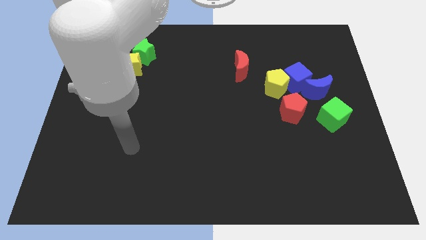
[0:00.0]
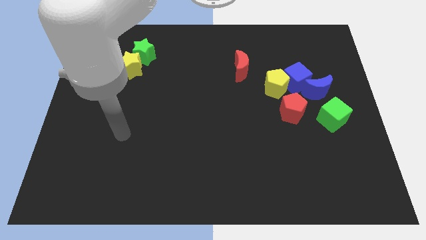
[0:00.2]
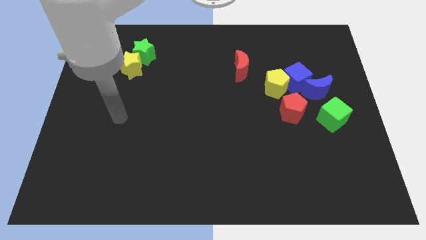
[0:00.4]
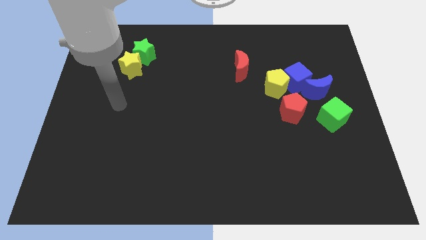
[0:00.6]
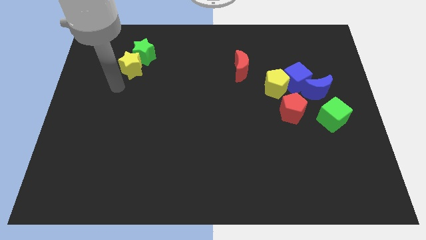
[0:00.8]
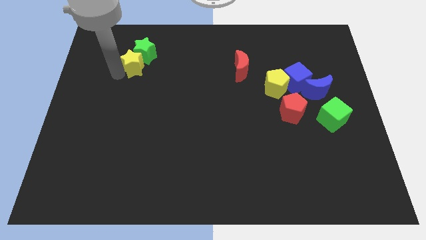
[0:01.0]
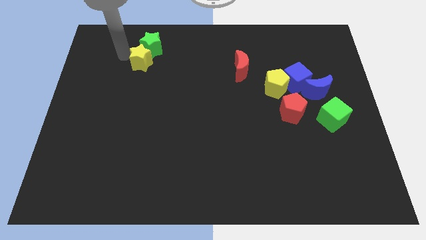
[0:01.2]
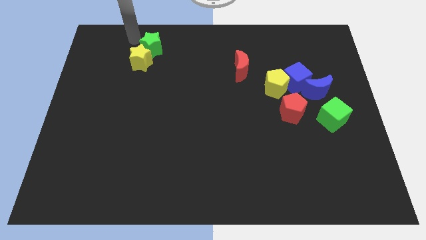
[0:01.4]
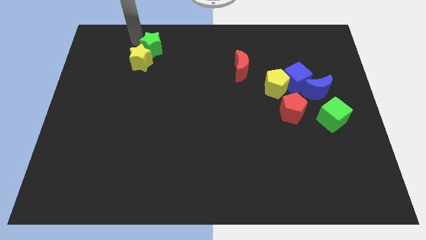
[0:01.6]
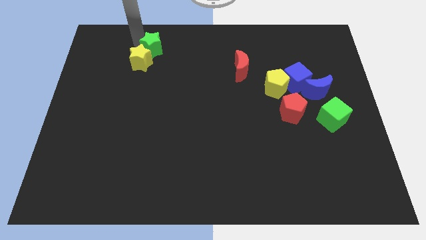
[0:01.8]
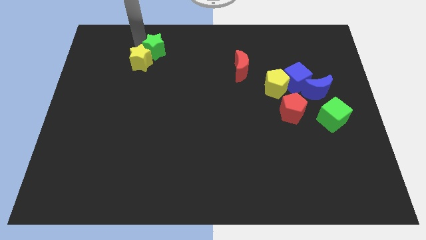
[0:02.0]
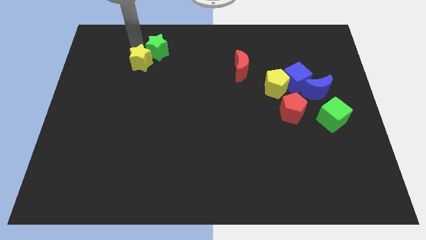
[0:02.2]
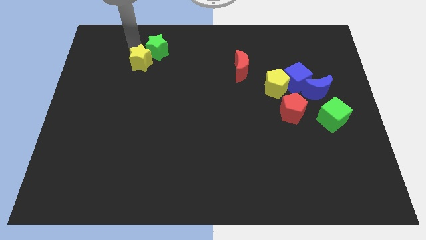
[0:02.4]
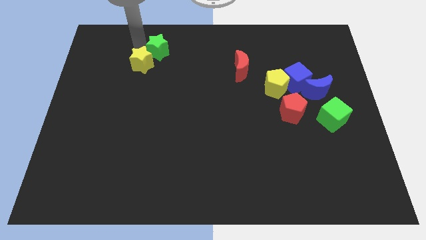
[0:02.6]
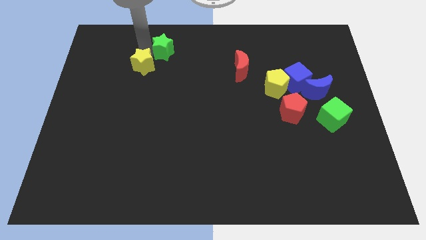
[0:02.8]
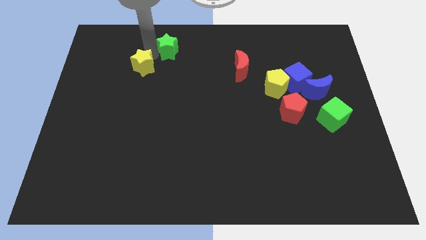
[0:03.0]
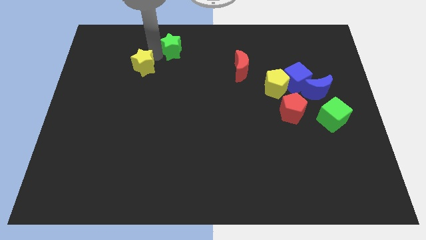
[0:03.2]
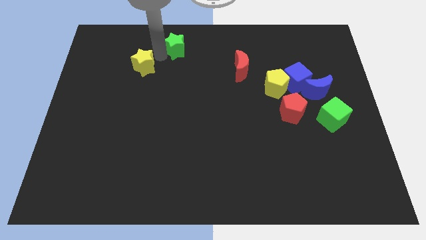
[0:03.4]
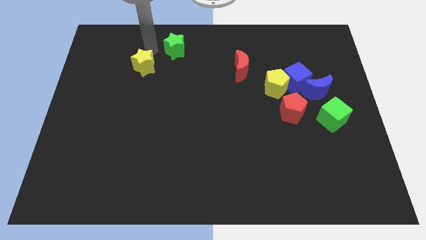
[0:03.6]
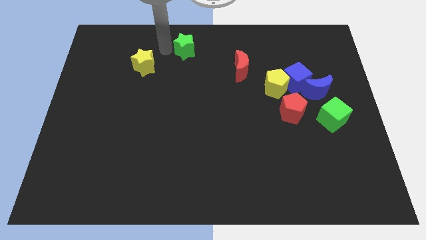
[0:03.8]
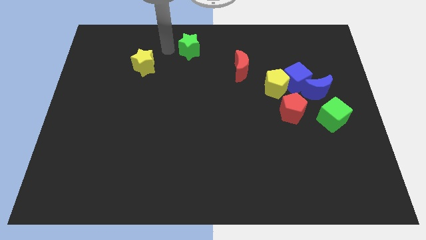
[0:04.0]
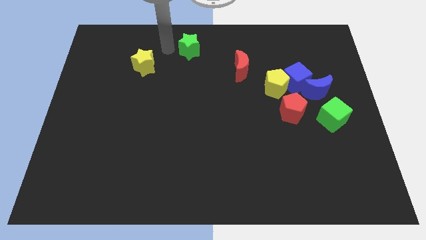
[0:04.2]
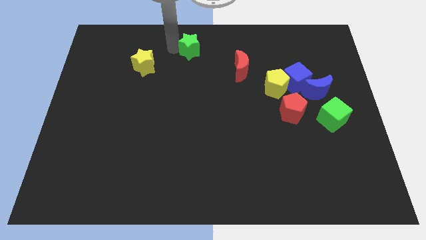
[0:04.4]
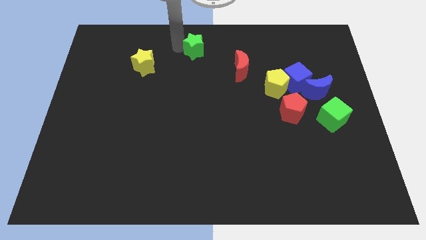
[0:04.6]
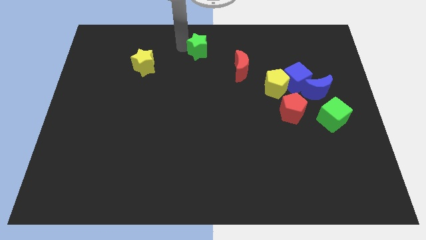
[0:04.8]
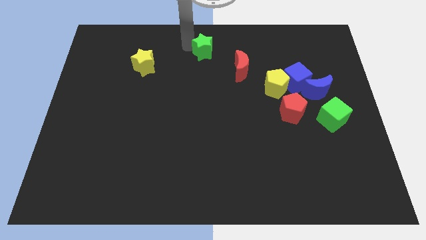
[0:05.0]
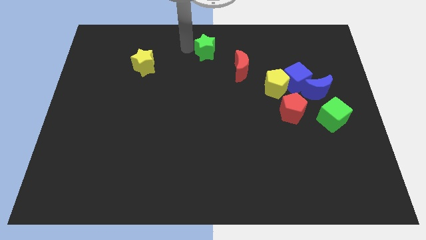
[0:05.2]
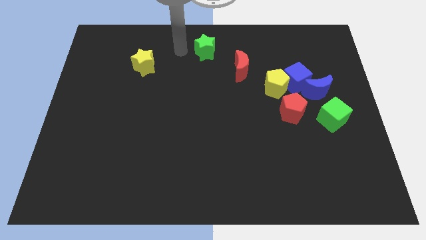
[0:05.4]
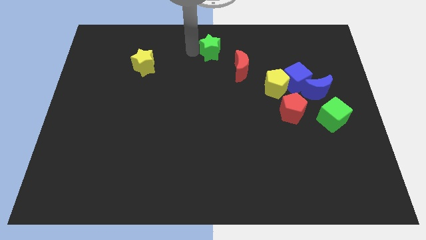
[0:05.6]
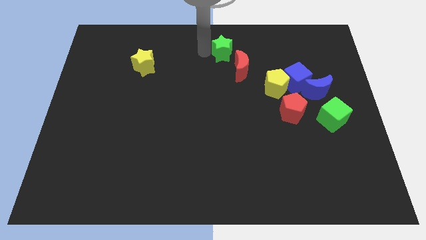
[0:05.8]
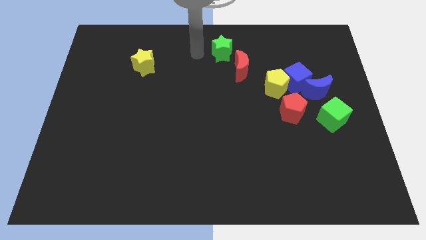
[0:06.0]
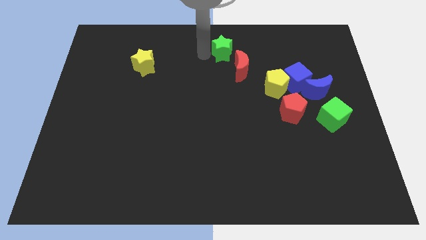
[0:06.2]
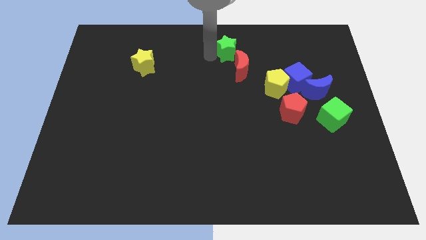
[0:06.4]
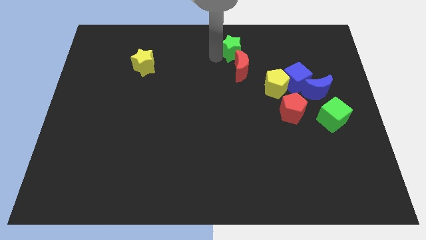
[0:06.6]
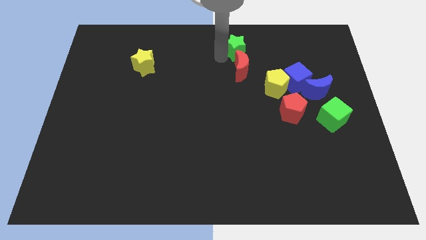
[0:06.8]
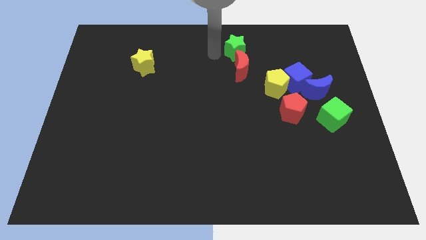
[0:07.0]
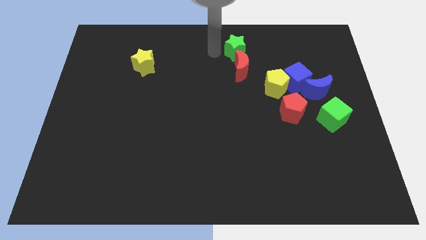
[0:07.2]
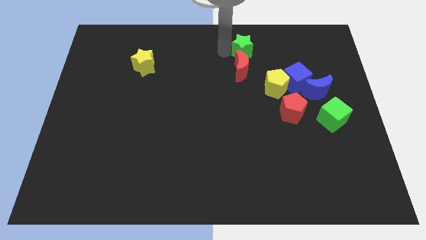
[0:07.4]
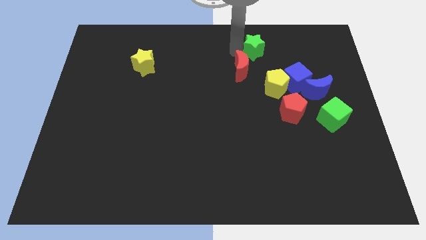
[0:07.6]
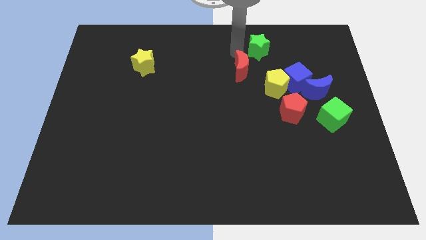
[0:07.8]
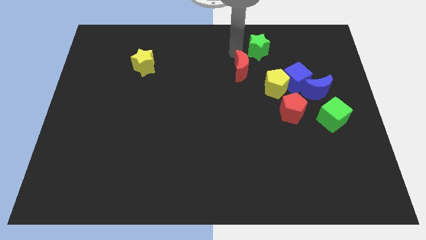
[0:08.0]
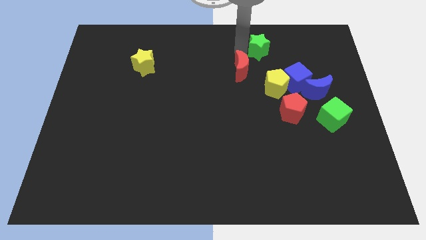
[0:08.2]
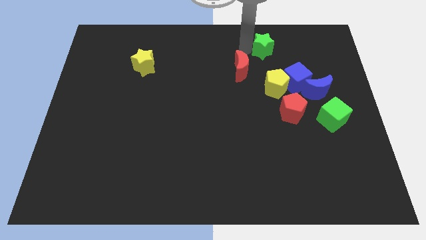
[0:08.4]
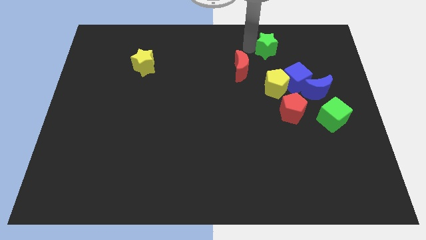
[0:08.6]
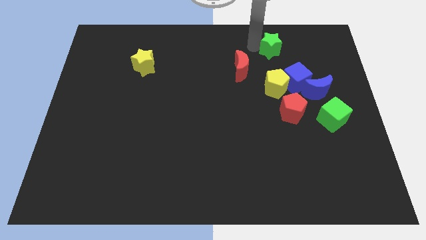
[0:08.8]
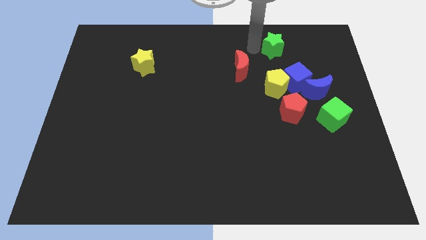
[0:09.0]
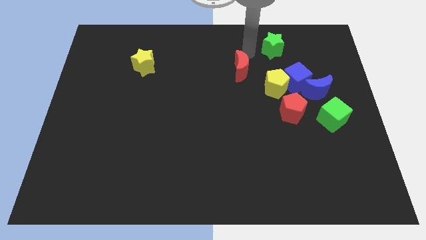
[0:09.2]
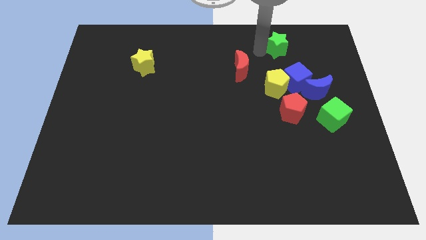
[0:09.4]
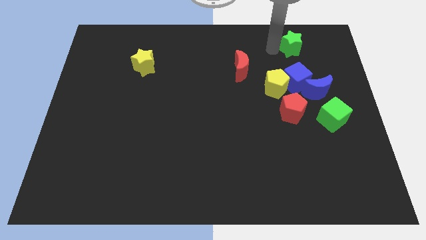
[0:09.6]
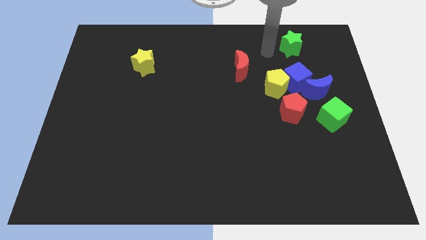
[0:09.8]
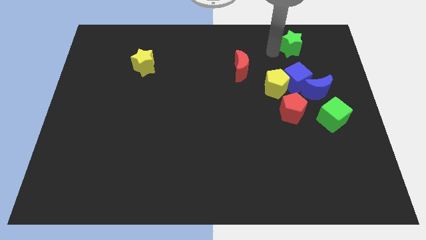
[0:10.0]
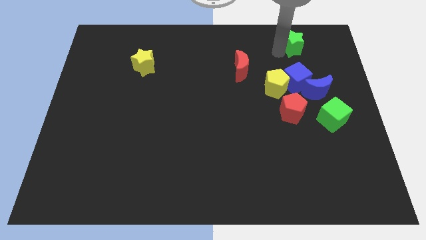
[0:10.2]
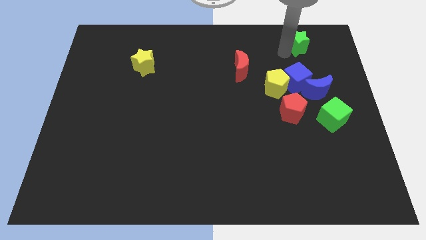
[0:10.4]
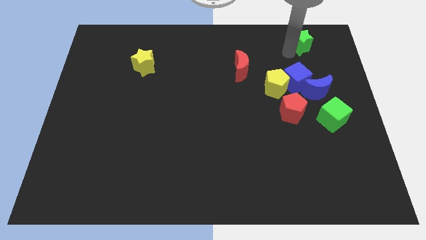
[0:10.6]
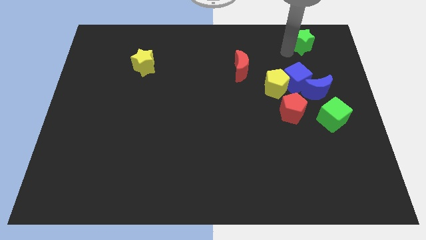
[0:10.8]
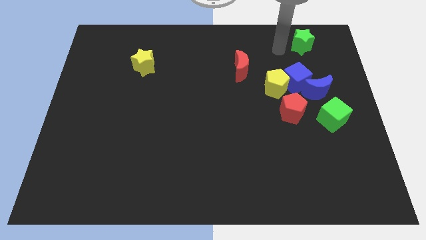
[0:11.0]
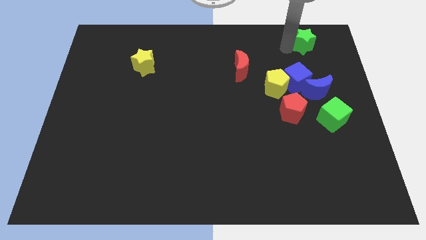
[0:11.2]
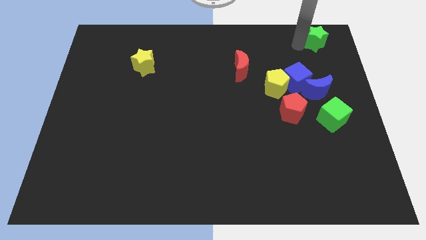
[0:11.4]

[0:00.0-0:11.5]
slide the green star to the top right

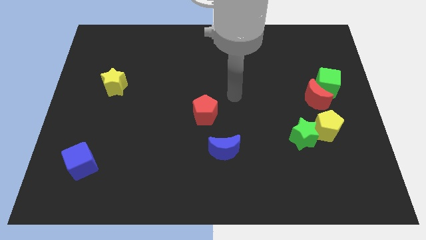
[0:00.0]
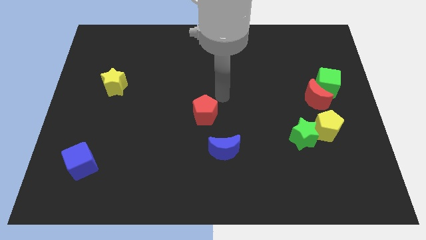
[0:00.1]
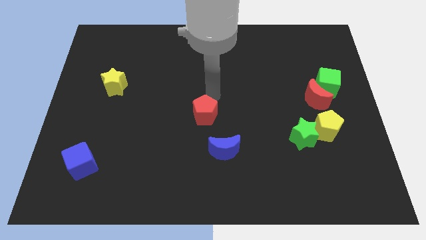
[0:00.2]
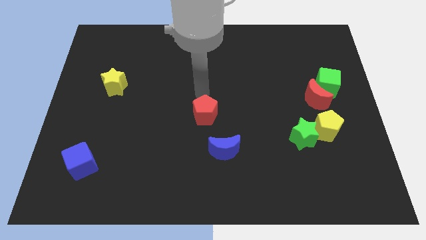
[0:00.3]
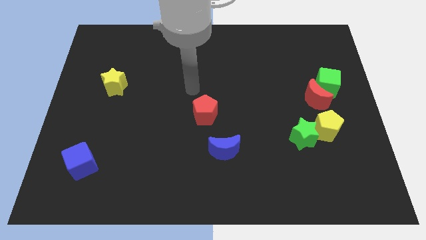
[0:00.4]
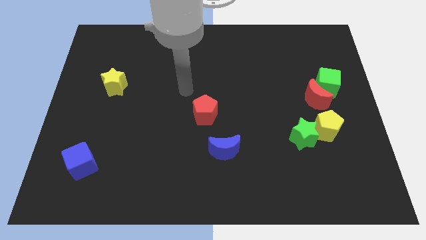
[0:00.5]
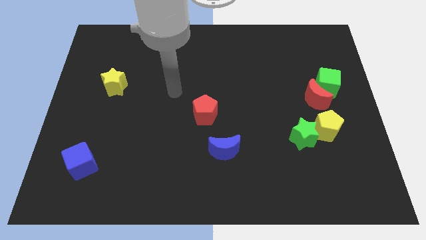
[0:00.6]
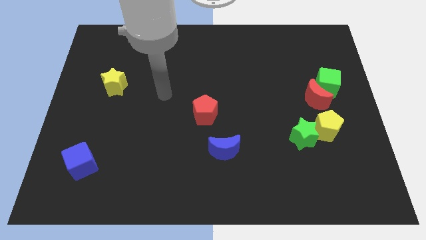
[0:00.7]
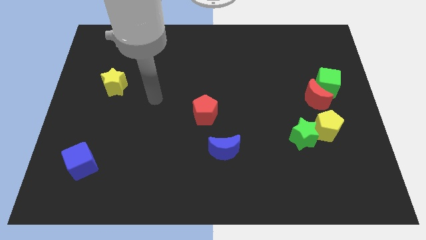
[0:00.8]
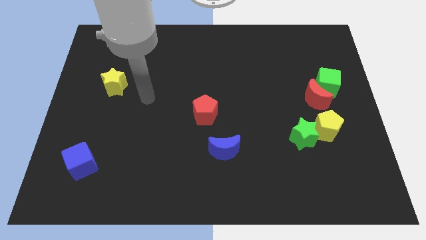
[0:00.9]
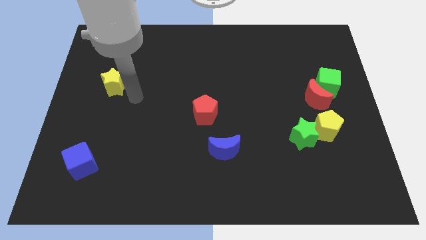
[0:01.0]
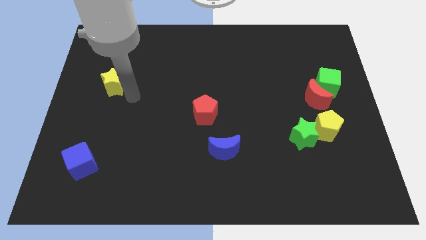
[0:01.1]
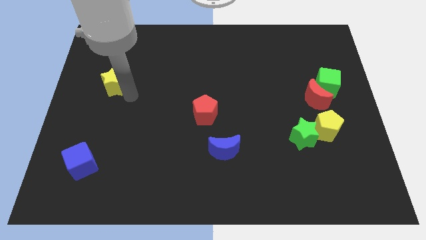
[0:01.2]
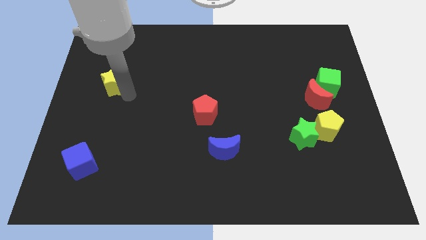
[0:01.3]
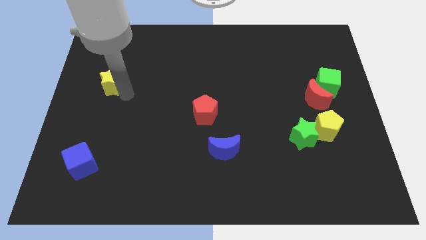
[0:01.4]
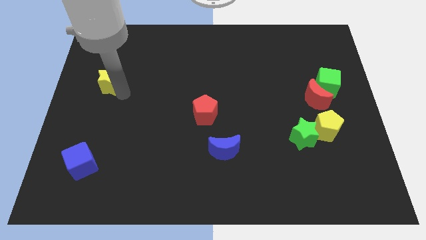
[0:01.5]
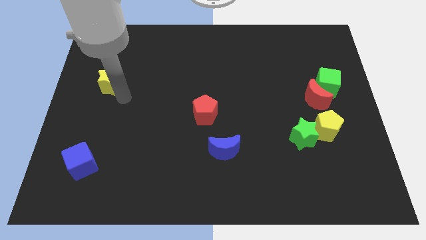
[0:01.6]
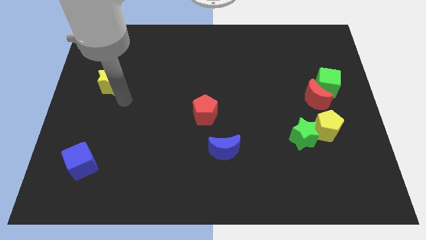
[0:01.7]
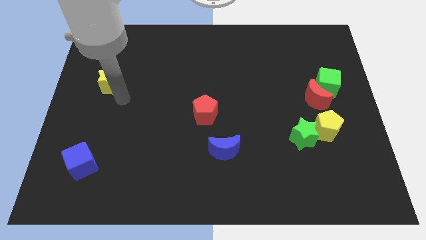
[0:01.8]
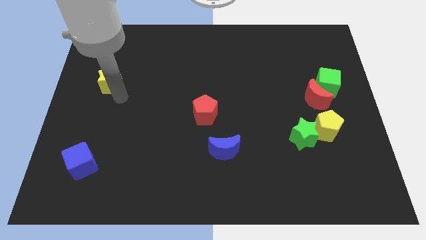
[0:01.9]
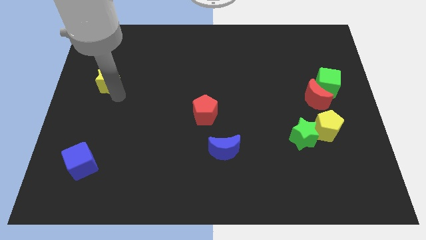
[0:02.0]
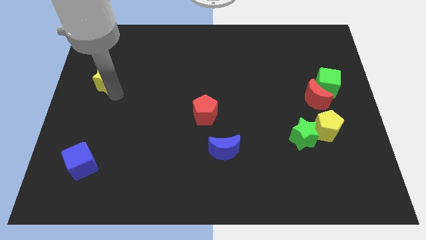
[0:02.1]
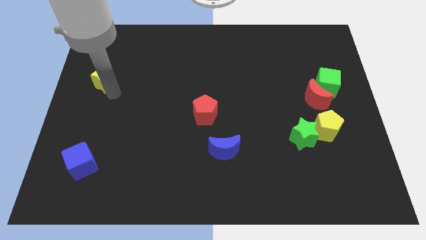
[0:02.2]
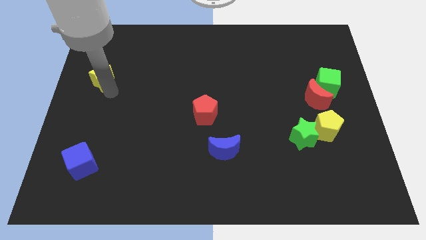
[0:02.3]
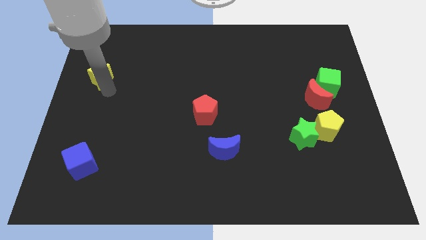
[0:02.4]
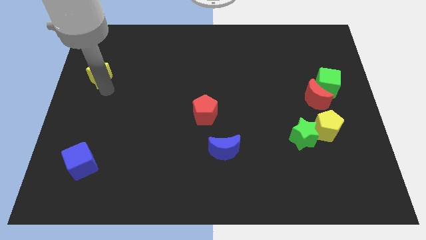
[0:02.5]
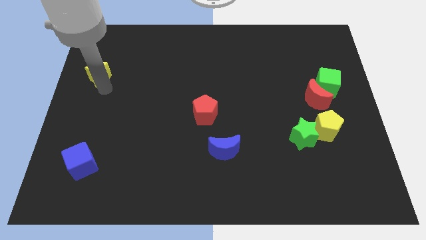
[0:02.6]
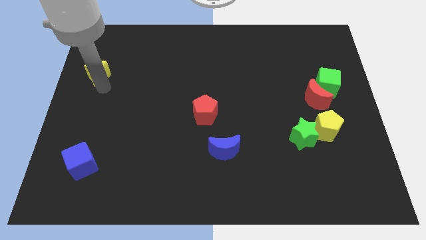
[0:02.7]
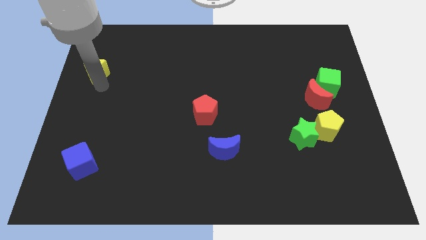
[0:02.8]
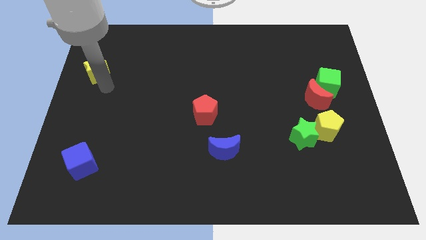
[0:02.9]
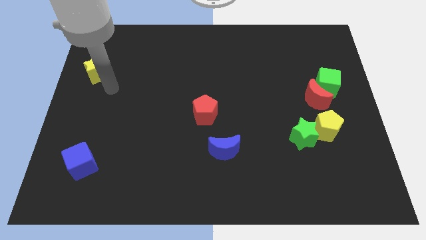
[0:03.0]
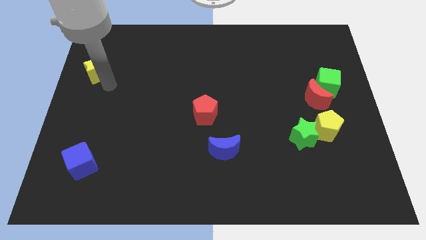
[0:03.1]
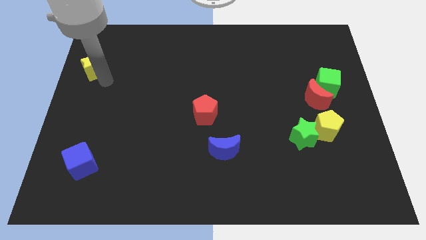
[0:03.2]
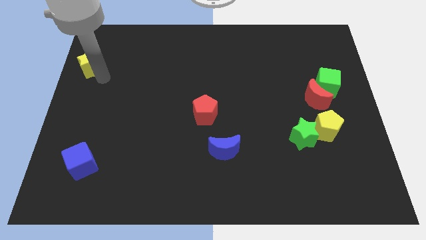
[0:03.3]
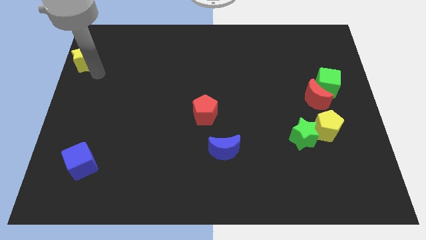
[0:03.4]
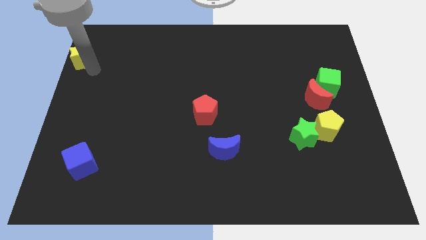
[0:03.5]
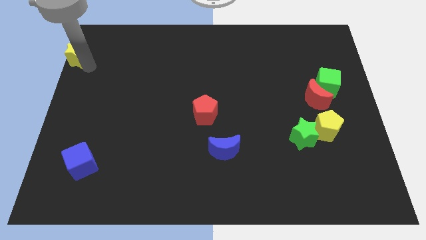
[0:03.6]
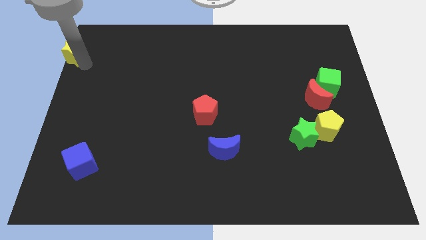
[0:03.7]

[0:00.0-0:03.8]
push the yellow star to the upper left corner
